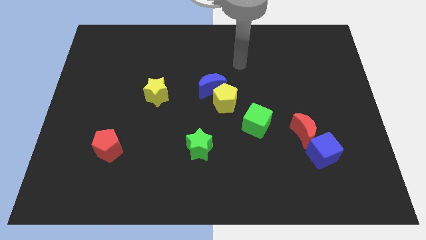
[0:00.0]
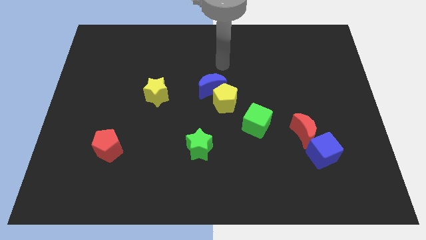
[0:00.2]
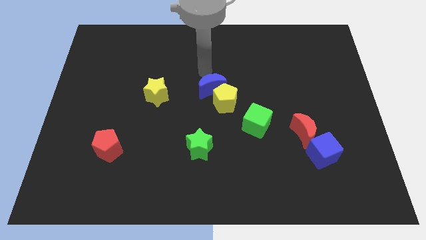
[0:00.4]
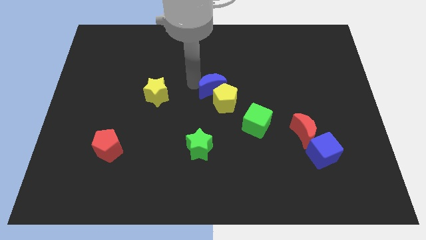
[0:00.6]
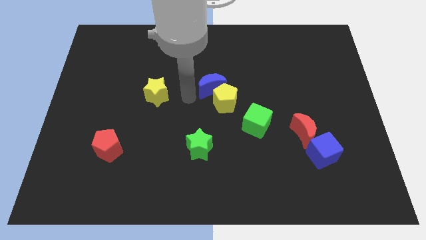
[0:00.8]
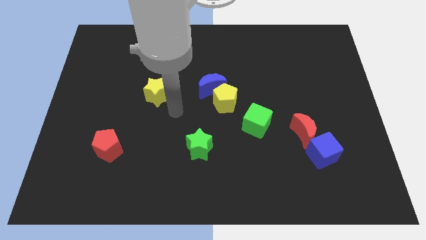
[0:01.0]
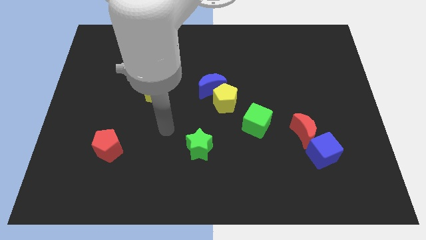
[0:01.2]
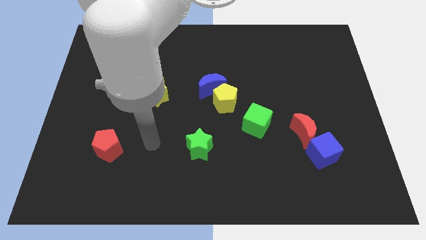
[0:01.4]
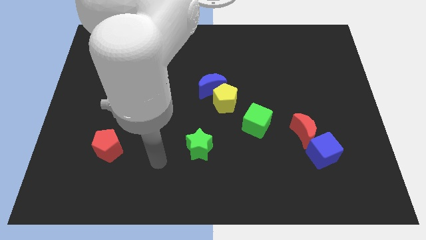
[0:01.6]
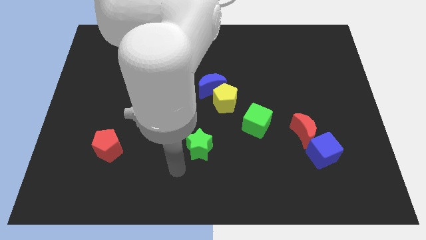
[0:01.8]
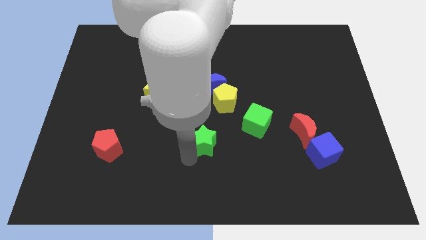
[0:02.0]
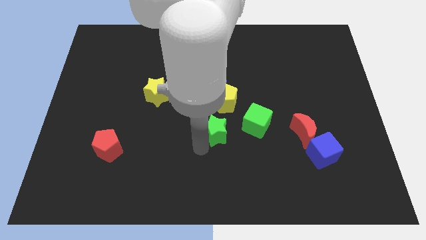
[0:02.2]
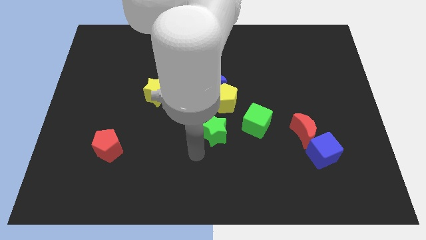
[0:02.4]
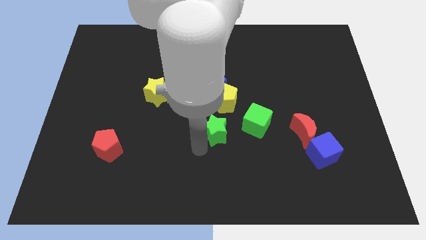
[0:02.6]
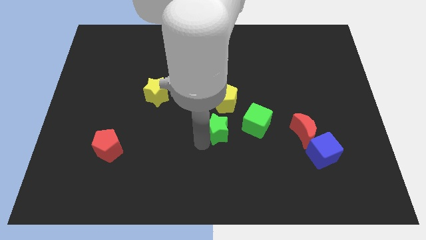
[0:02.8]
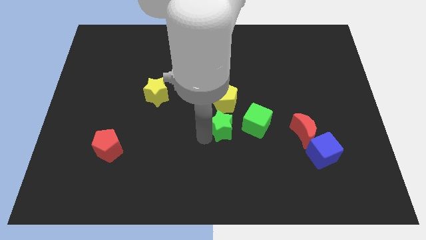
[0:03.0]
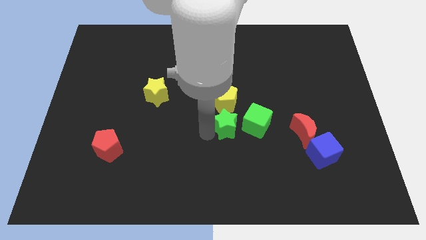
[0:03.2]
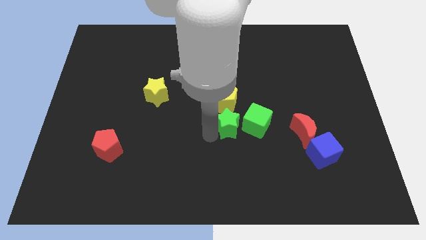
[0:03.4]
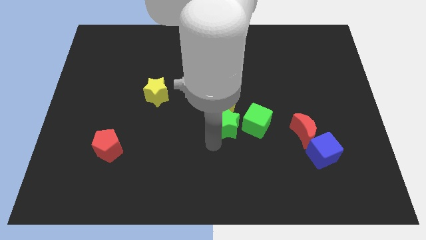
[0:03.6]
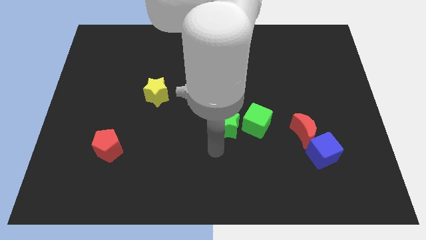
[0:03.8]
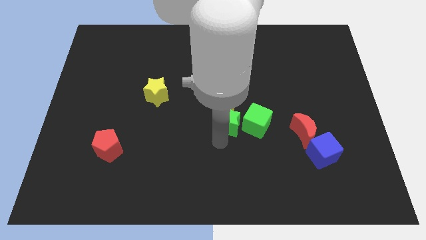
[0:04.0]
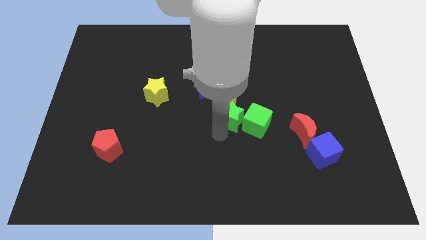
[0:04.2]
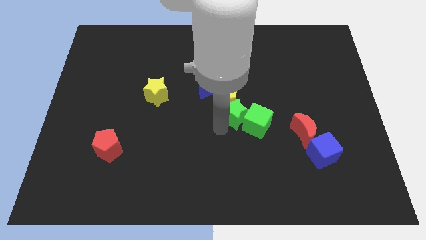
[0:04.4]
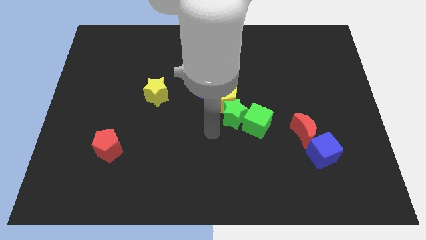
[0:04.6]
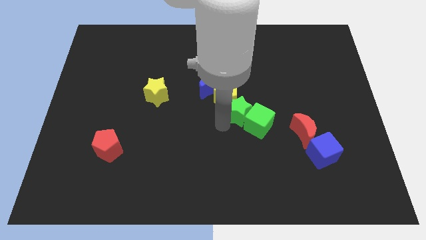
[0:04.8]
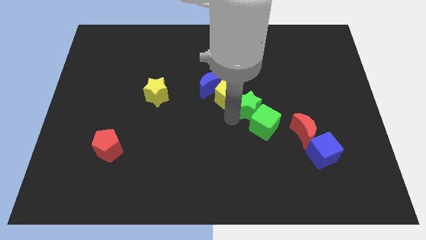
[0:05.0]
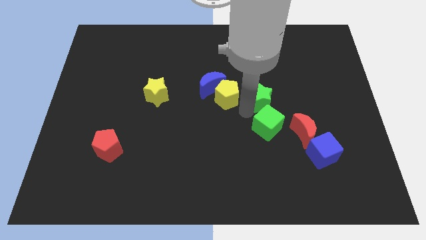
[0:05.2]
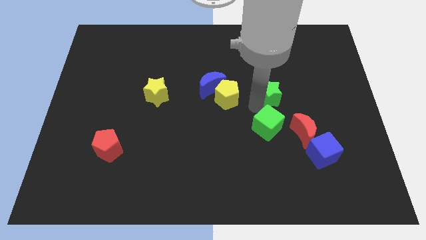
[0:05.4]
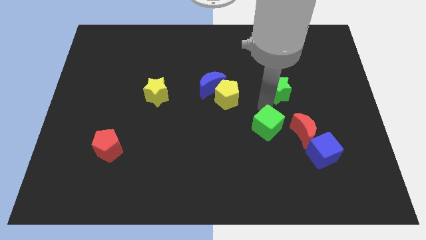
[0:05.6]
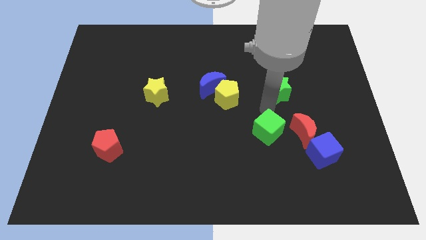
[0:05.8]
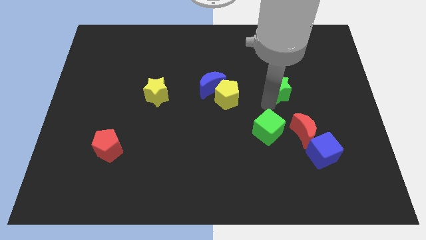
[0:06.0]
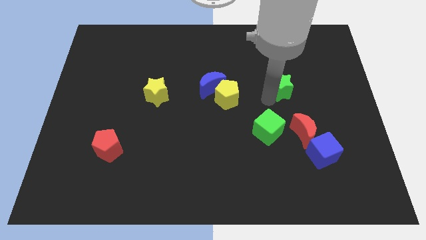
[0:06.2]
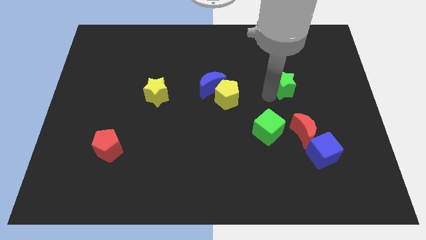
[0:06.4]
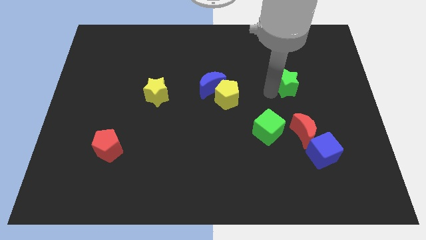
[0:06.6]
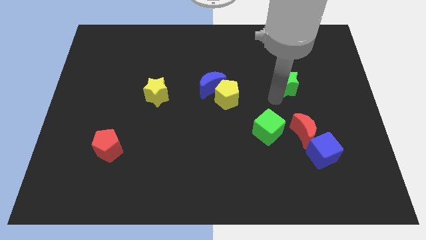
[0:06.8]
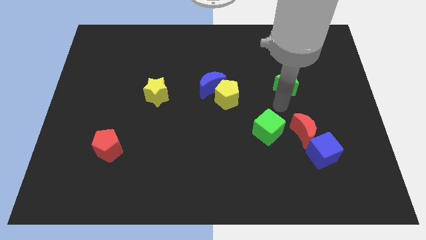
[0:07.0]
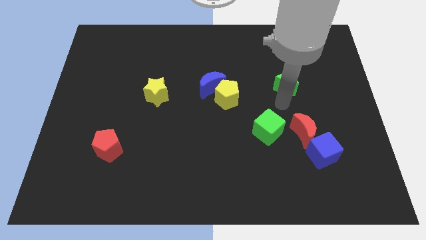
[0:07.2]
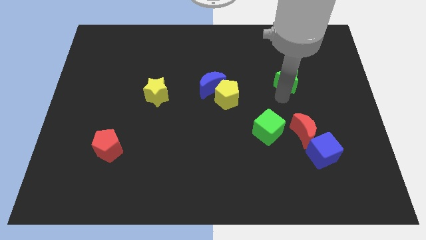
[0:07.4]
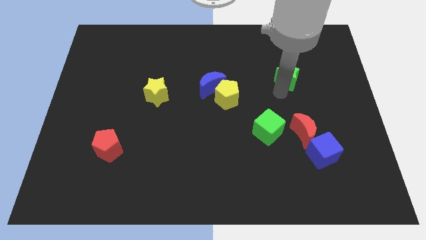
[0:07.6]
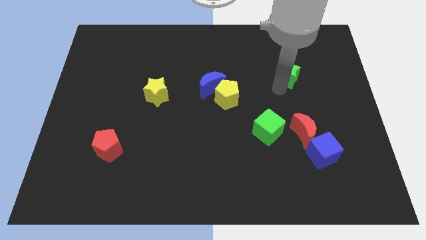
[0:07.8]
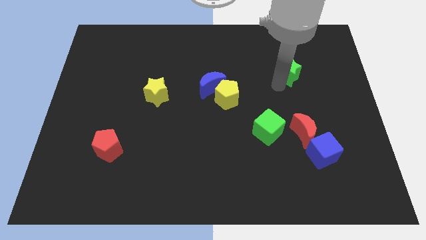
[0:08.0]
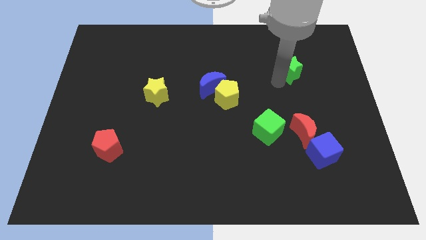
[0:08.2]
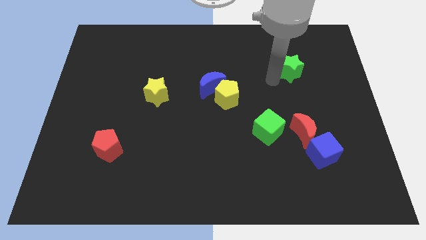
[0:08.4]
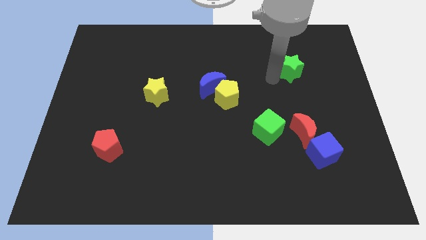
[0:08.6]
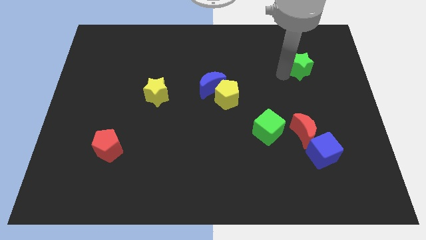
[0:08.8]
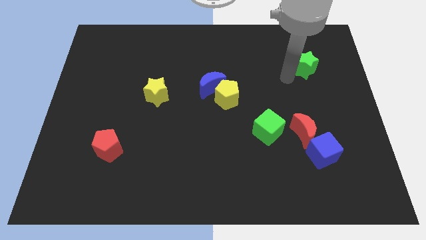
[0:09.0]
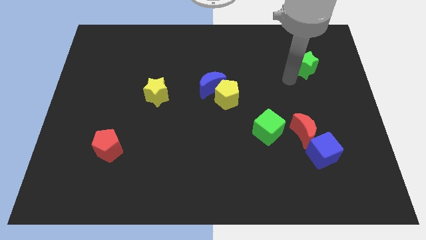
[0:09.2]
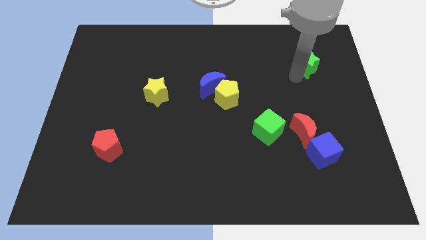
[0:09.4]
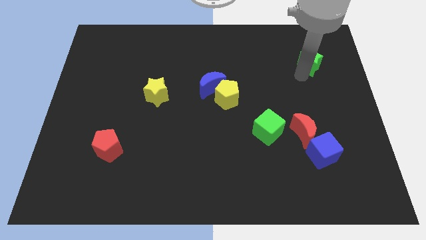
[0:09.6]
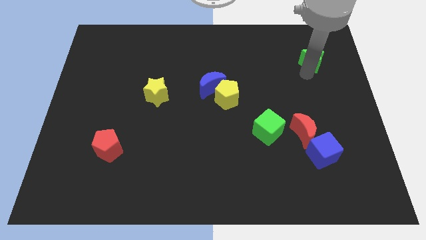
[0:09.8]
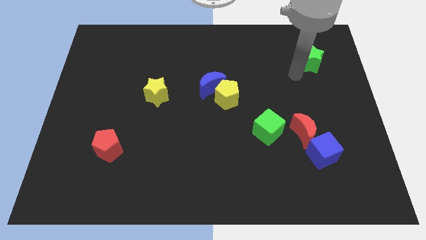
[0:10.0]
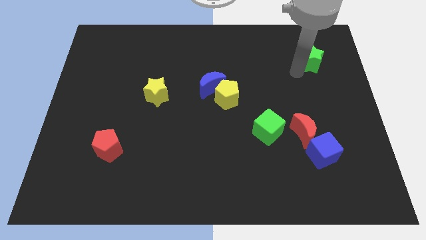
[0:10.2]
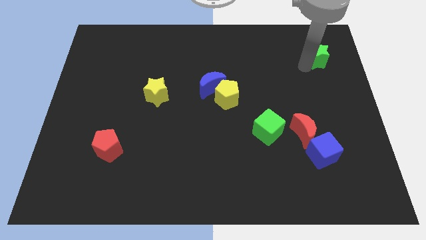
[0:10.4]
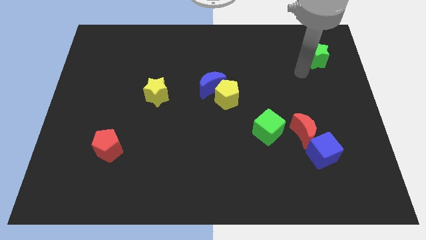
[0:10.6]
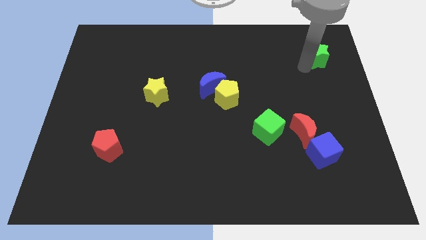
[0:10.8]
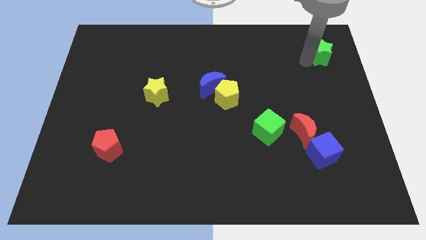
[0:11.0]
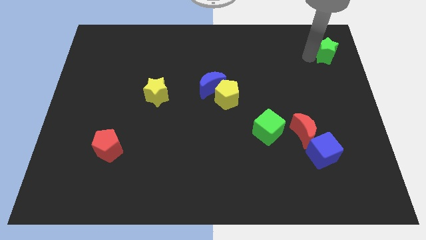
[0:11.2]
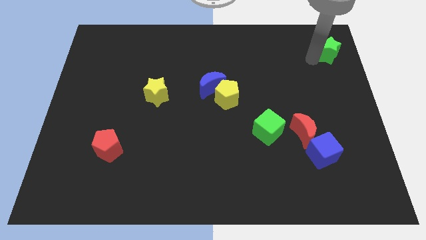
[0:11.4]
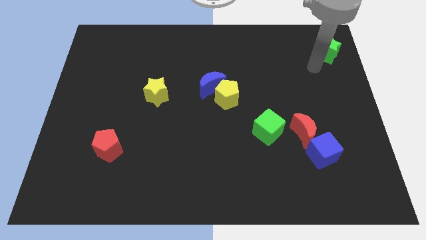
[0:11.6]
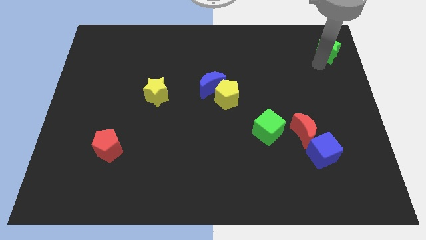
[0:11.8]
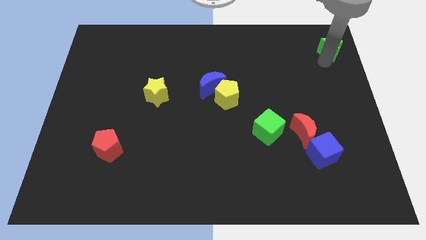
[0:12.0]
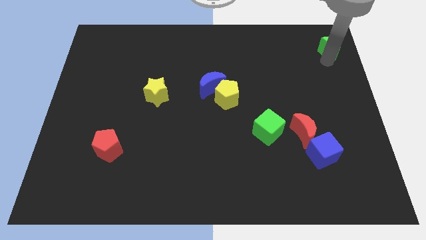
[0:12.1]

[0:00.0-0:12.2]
slide the green star to the top right corner
